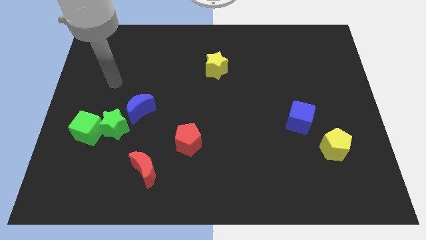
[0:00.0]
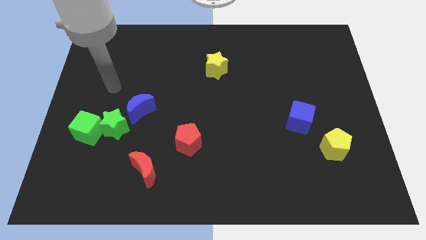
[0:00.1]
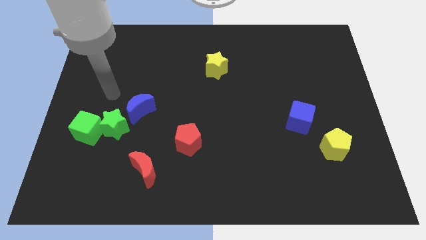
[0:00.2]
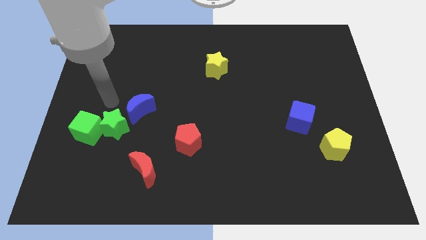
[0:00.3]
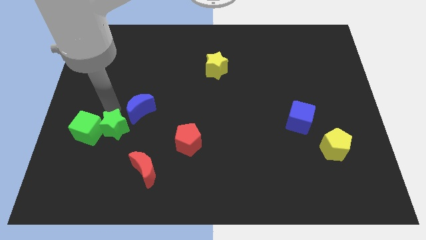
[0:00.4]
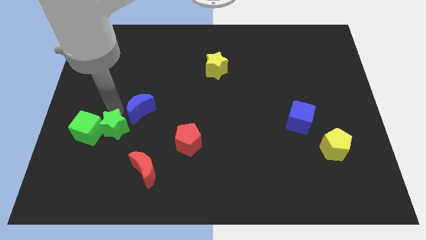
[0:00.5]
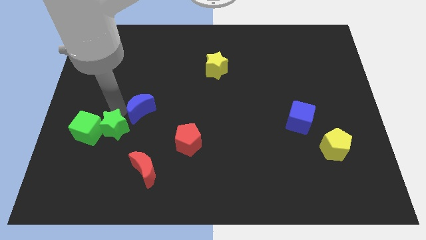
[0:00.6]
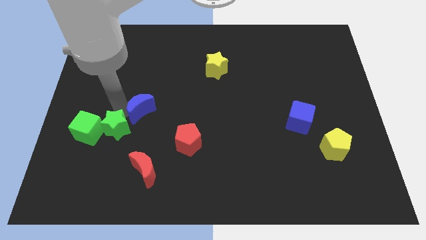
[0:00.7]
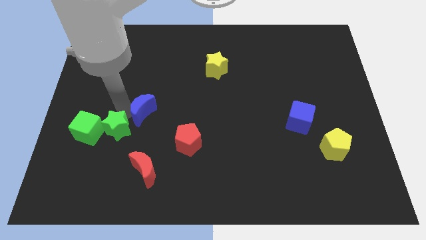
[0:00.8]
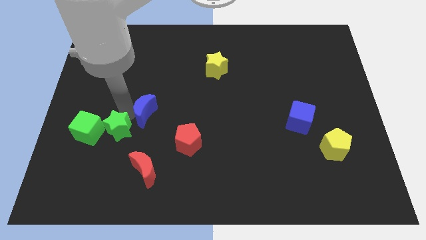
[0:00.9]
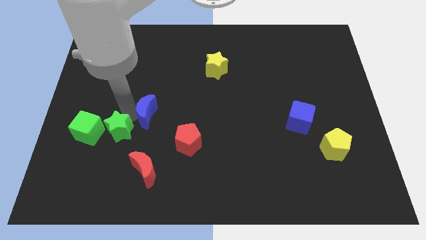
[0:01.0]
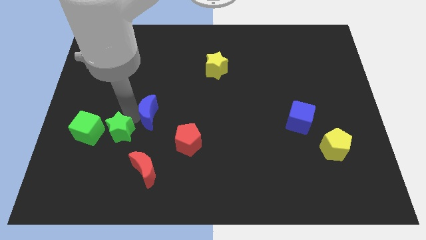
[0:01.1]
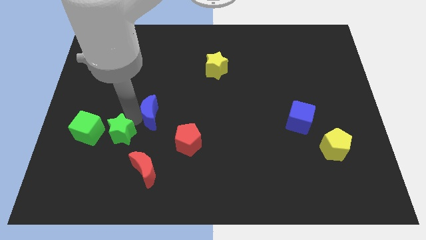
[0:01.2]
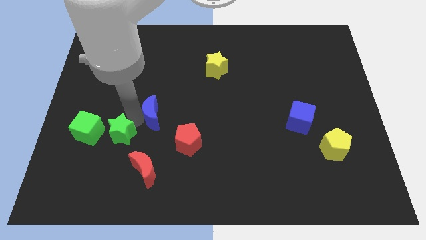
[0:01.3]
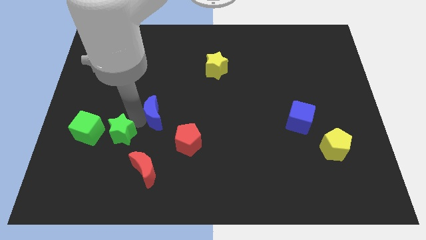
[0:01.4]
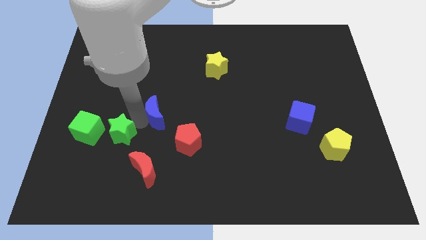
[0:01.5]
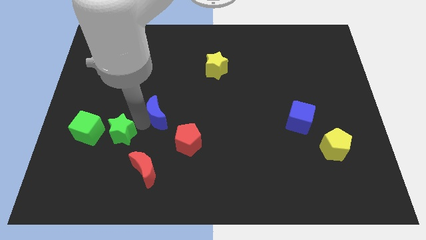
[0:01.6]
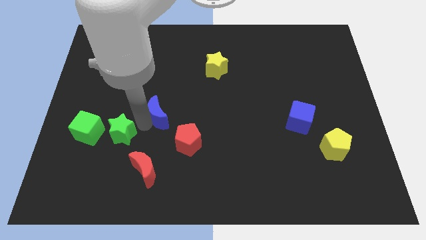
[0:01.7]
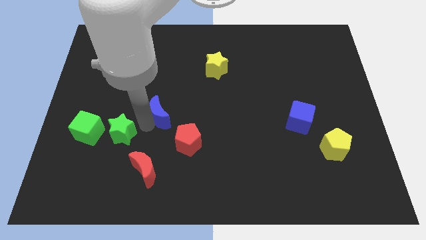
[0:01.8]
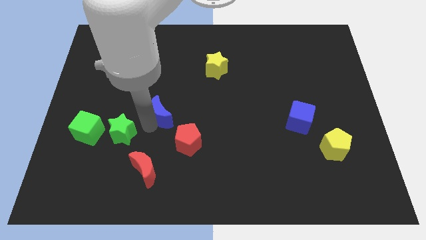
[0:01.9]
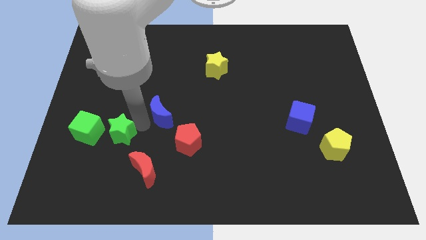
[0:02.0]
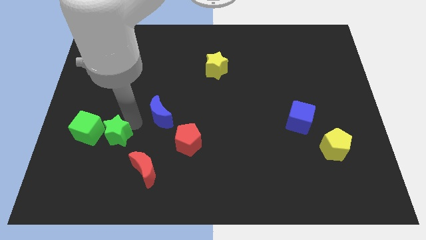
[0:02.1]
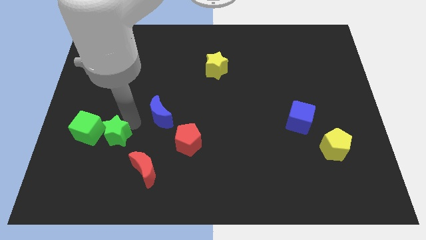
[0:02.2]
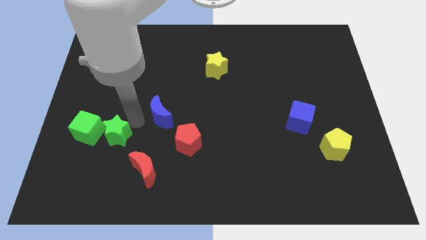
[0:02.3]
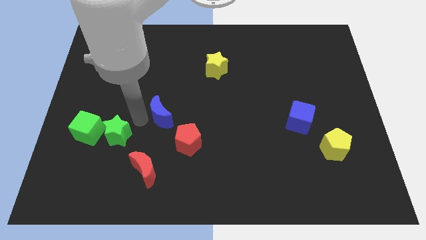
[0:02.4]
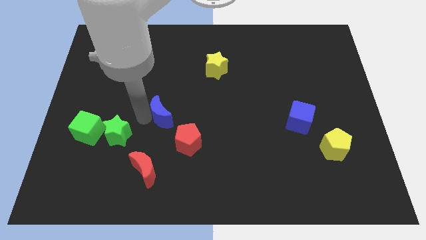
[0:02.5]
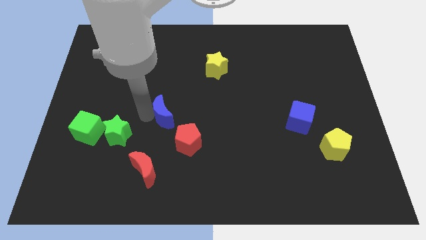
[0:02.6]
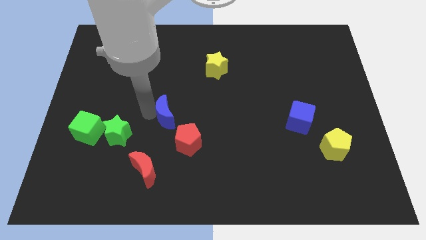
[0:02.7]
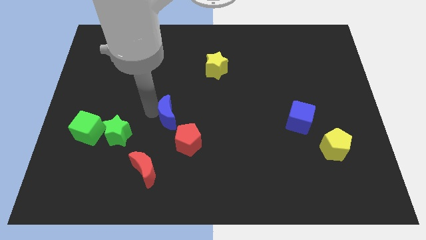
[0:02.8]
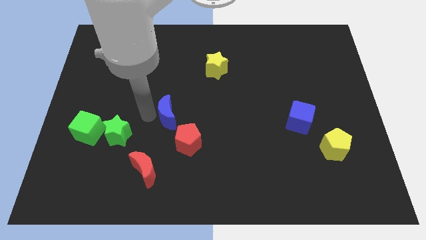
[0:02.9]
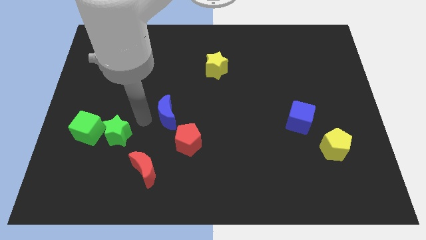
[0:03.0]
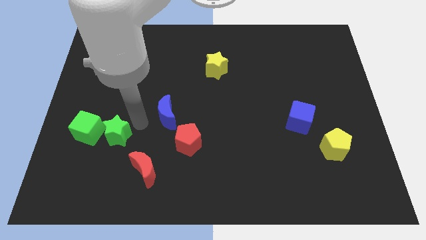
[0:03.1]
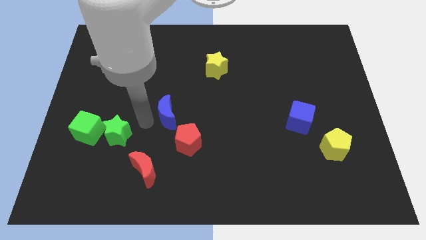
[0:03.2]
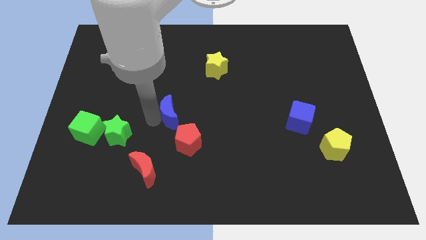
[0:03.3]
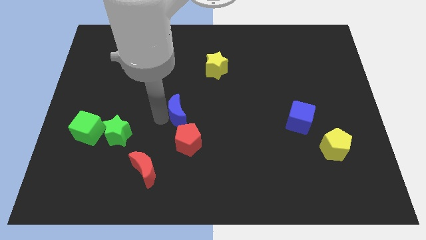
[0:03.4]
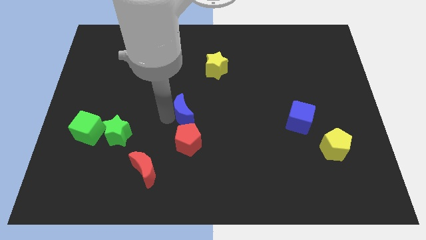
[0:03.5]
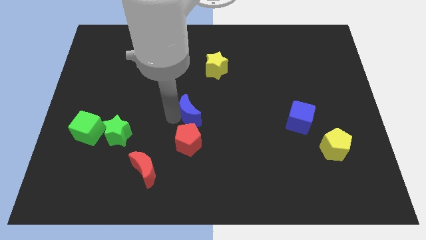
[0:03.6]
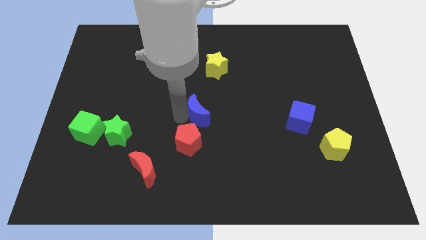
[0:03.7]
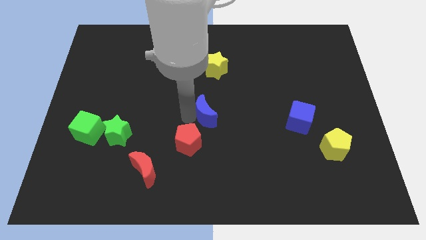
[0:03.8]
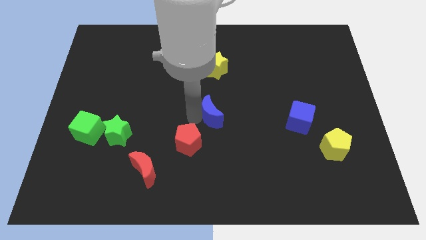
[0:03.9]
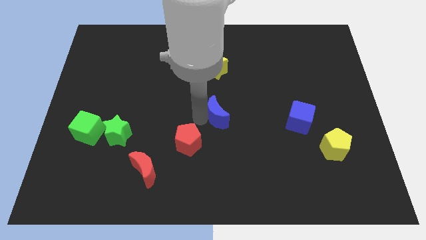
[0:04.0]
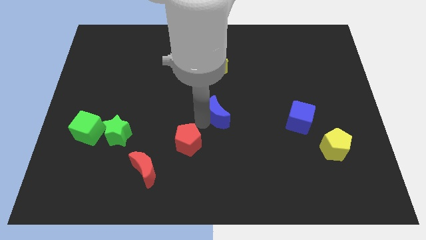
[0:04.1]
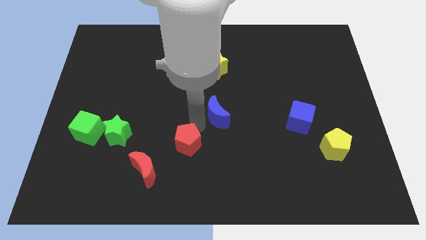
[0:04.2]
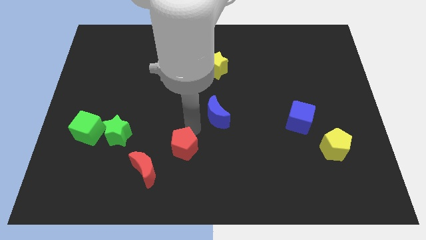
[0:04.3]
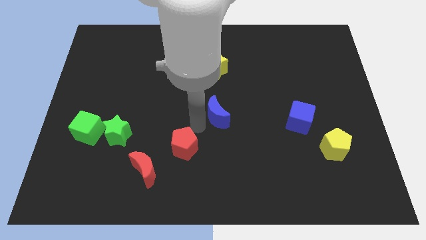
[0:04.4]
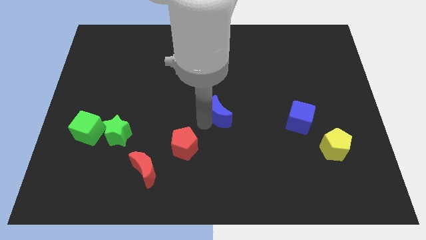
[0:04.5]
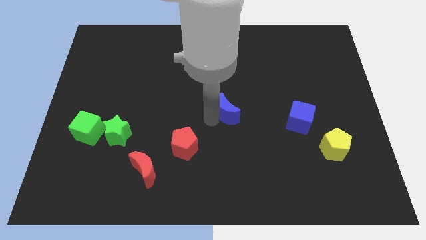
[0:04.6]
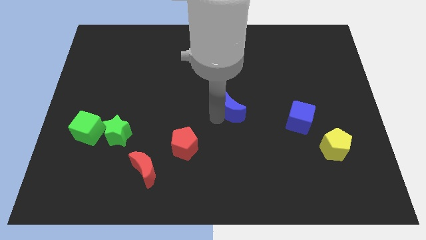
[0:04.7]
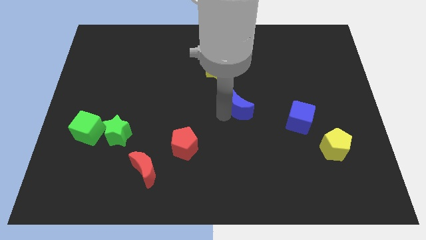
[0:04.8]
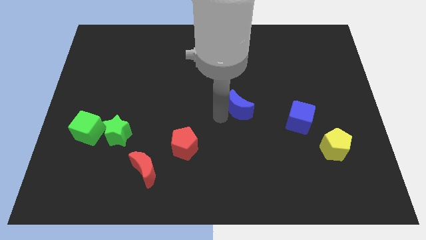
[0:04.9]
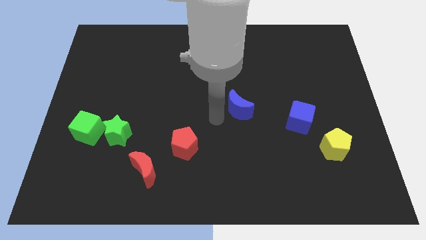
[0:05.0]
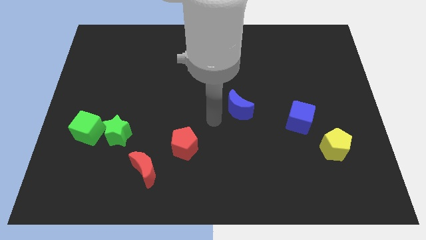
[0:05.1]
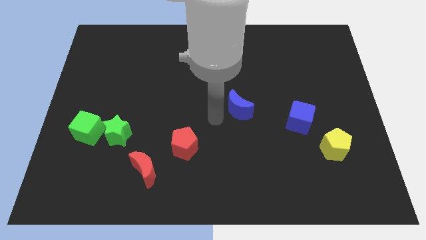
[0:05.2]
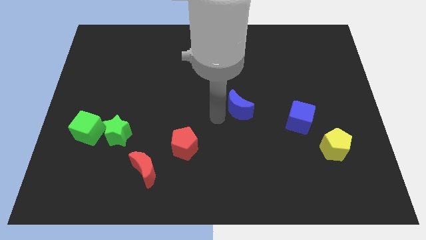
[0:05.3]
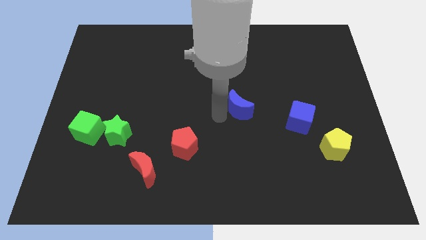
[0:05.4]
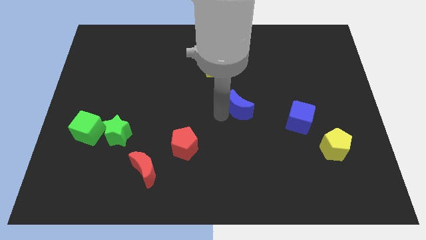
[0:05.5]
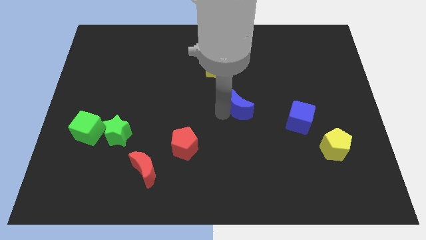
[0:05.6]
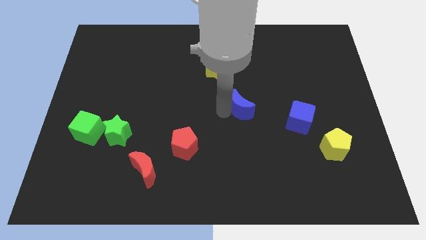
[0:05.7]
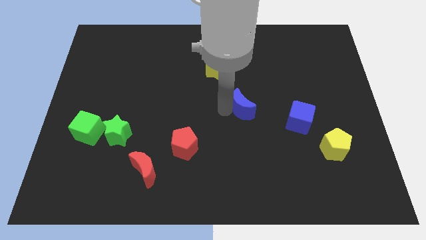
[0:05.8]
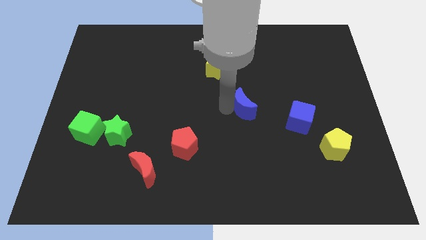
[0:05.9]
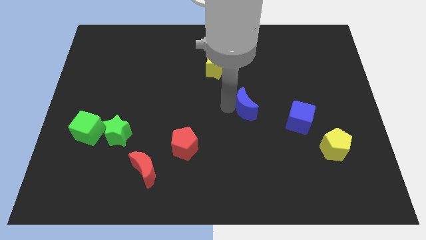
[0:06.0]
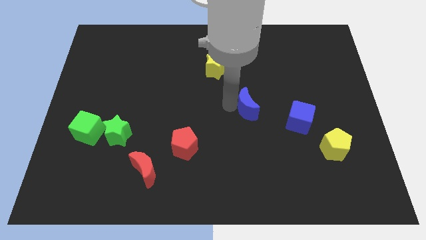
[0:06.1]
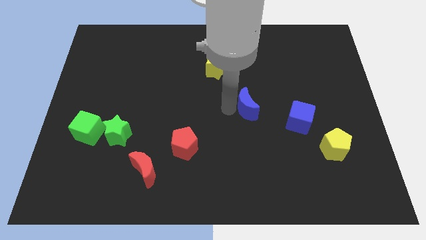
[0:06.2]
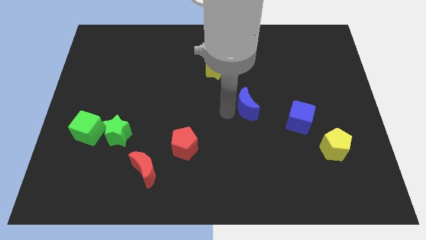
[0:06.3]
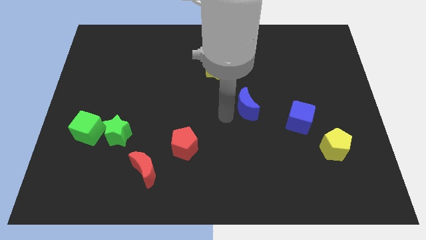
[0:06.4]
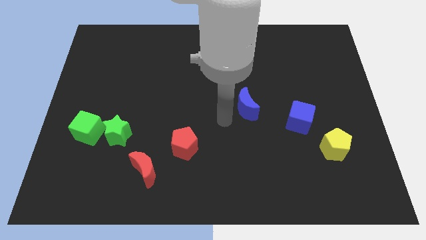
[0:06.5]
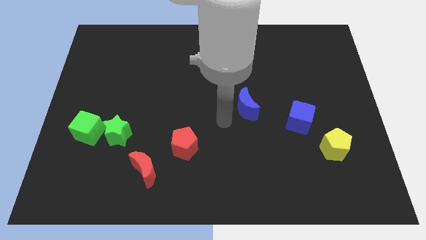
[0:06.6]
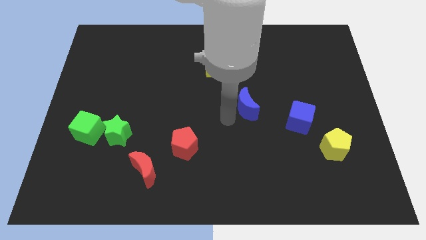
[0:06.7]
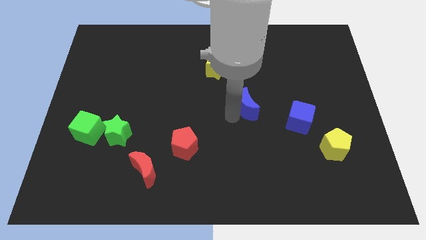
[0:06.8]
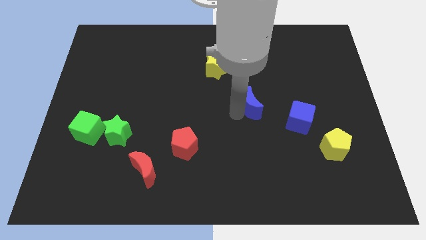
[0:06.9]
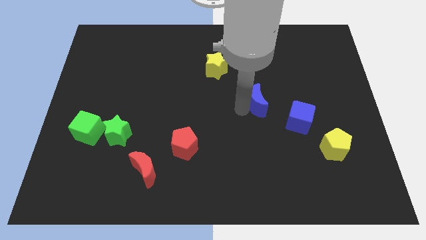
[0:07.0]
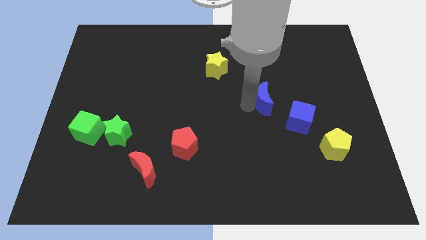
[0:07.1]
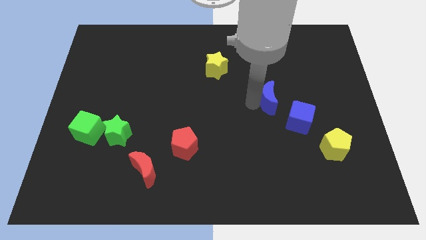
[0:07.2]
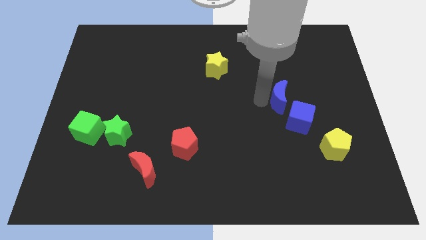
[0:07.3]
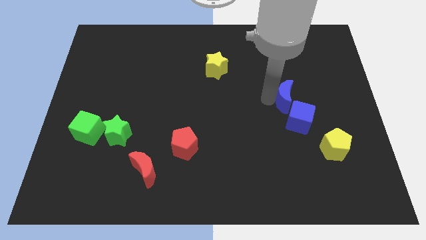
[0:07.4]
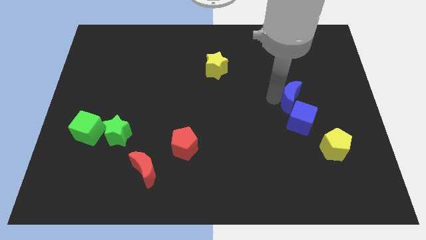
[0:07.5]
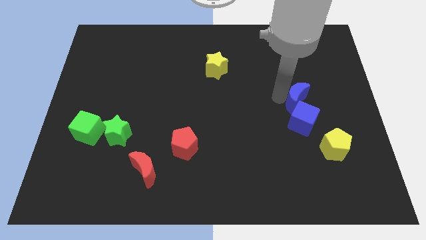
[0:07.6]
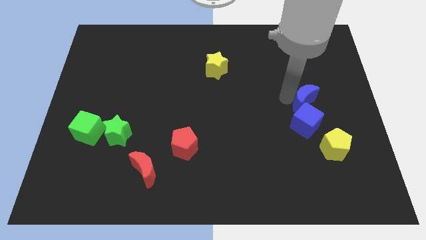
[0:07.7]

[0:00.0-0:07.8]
move the blue moon to the top right of the blue cube
